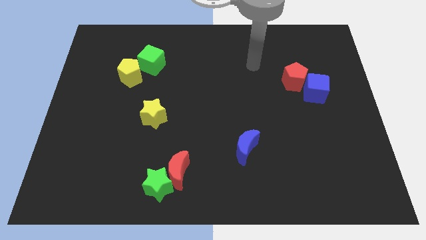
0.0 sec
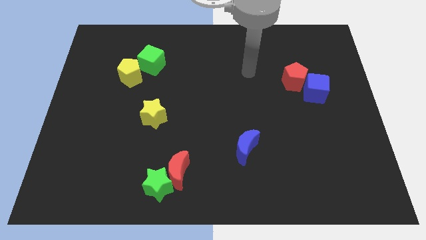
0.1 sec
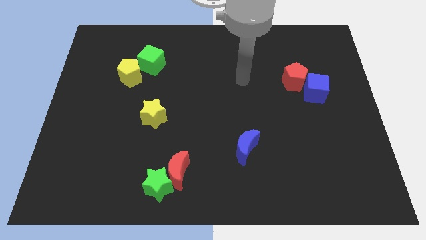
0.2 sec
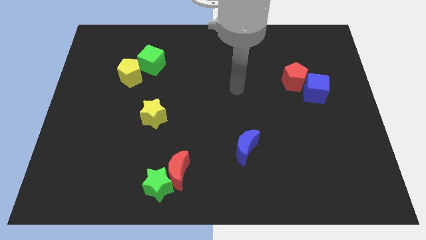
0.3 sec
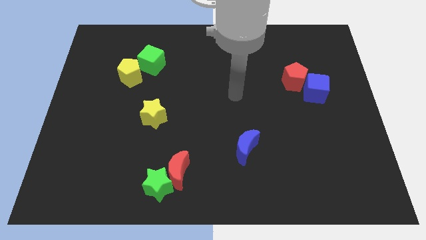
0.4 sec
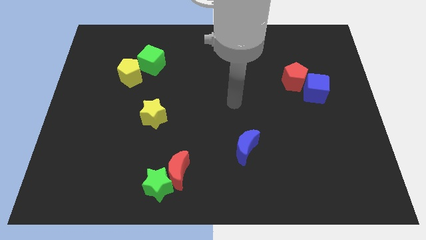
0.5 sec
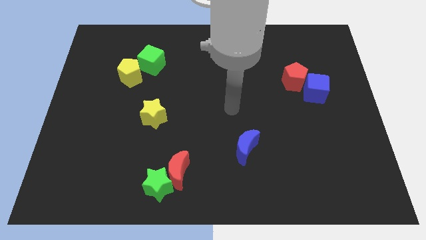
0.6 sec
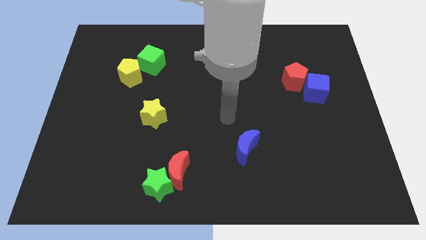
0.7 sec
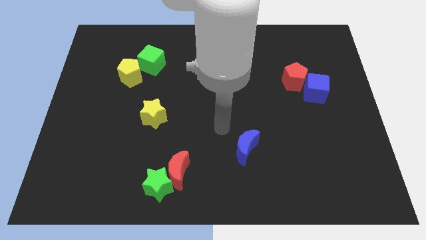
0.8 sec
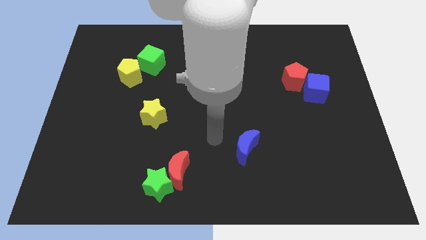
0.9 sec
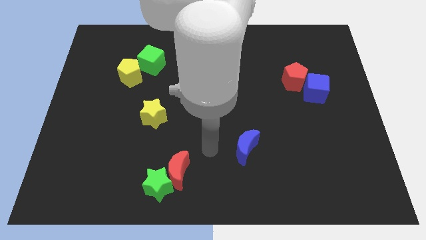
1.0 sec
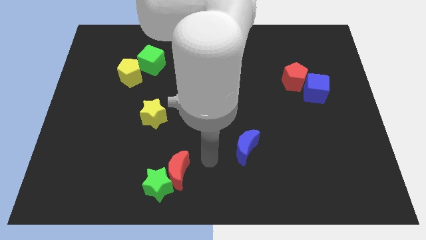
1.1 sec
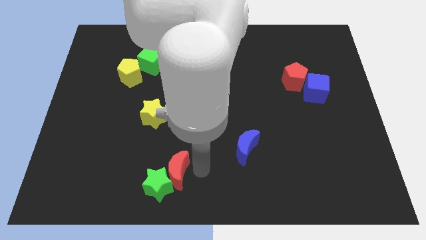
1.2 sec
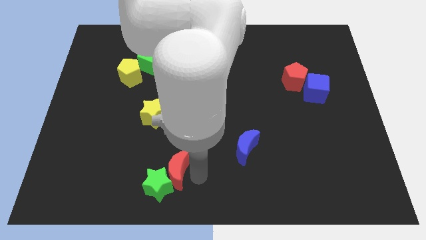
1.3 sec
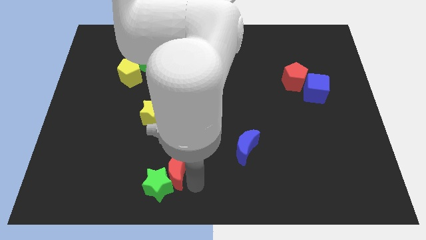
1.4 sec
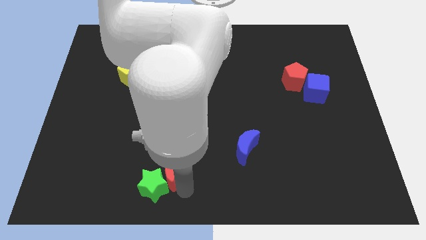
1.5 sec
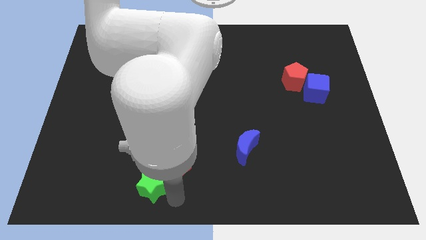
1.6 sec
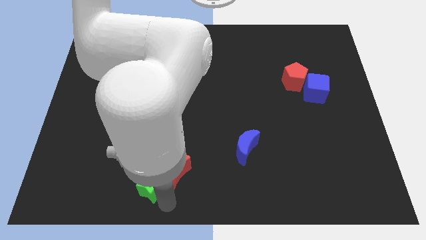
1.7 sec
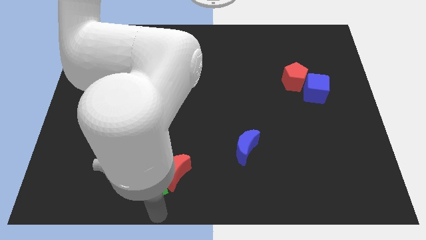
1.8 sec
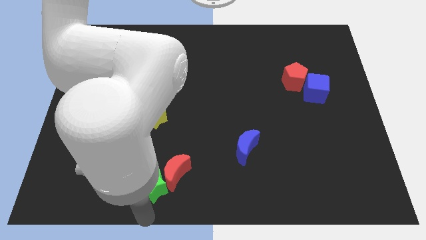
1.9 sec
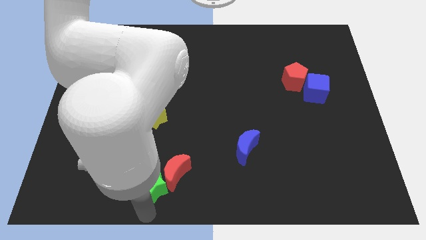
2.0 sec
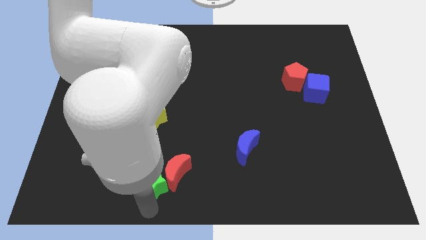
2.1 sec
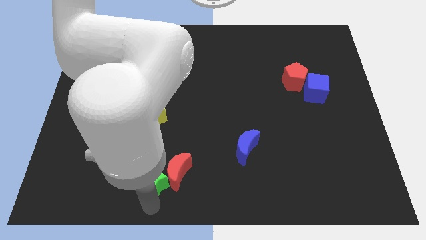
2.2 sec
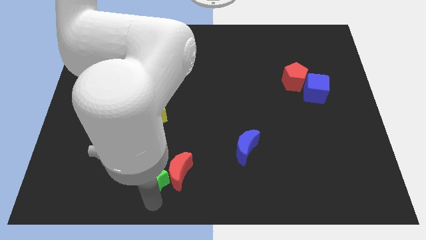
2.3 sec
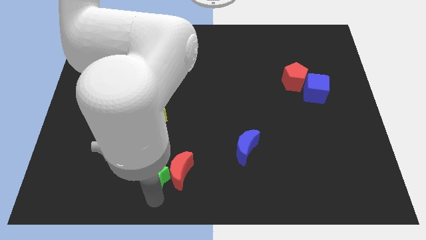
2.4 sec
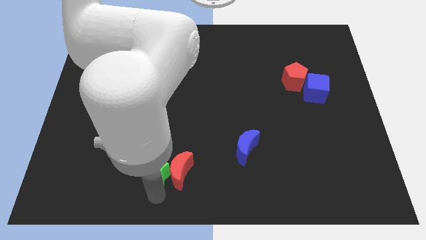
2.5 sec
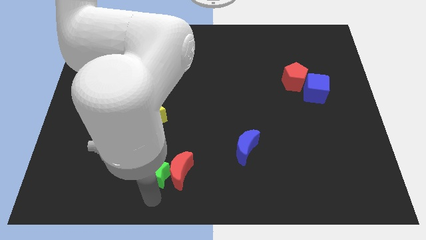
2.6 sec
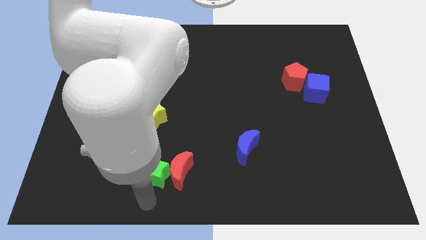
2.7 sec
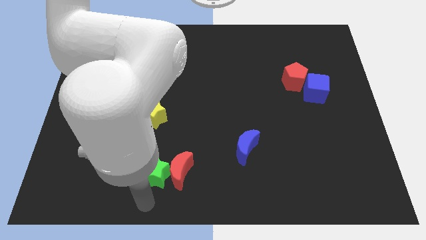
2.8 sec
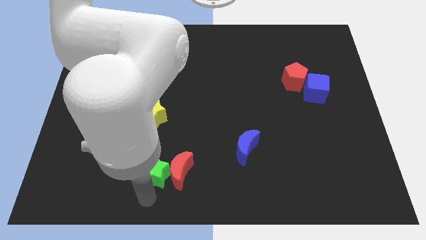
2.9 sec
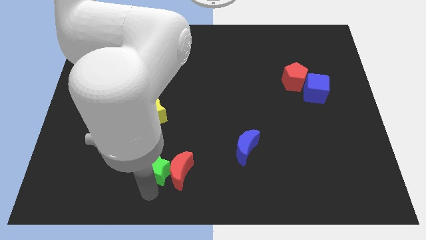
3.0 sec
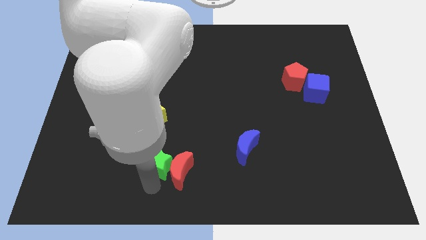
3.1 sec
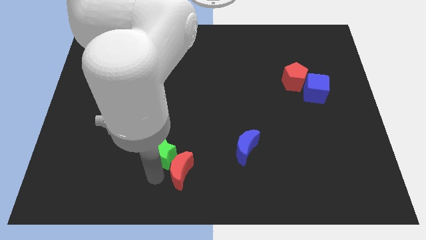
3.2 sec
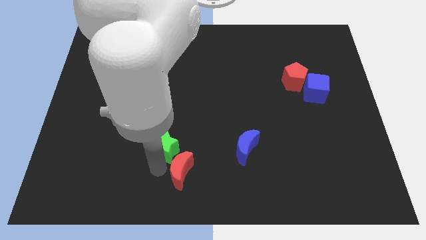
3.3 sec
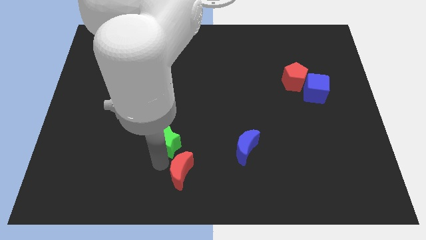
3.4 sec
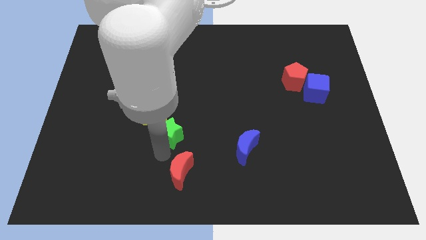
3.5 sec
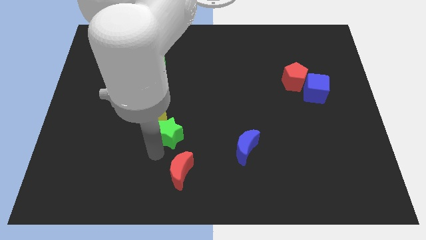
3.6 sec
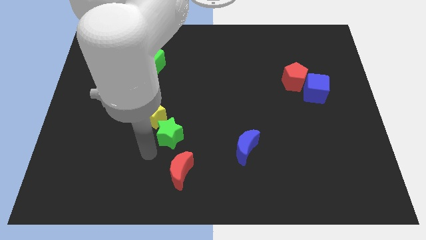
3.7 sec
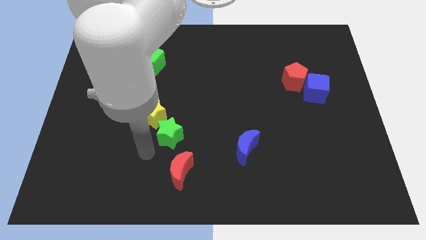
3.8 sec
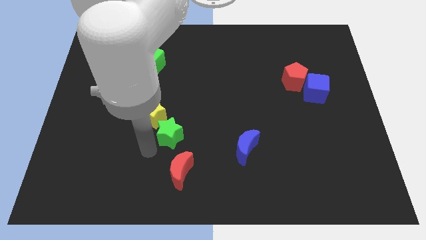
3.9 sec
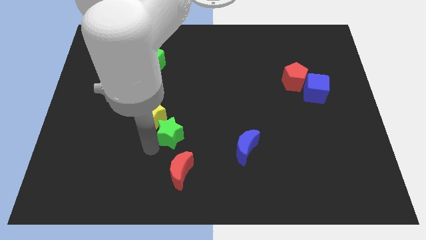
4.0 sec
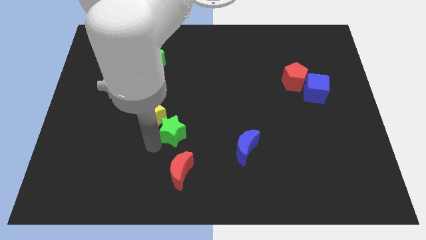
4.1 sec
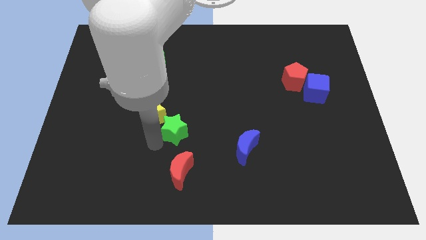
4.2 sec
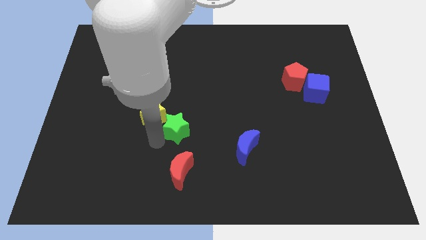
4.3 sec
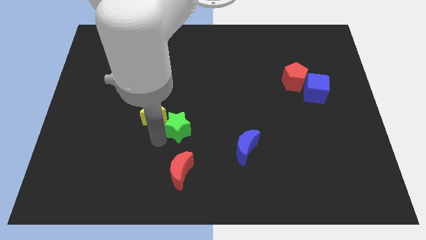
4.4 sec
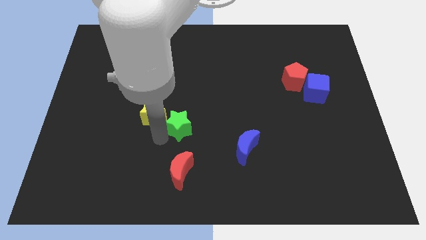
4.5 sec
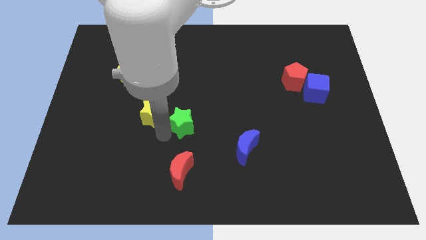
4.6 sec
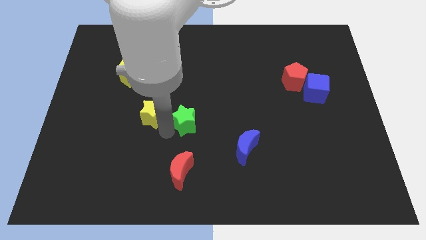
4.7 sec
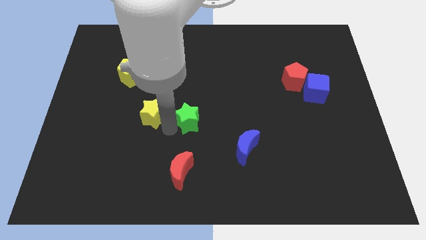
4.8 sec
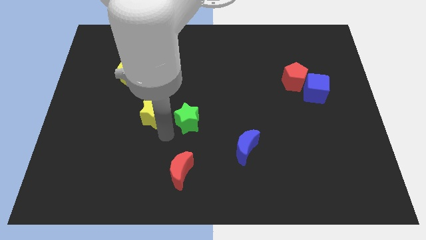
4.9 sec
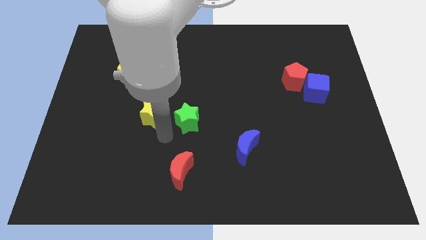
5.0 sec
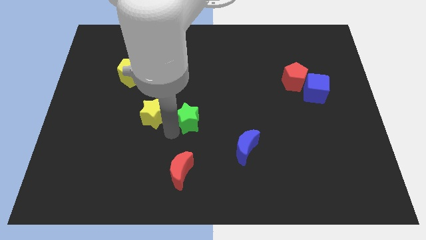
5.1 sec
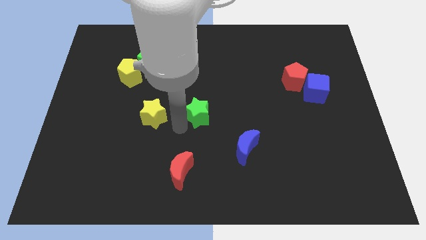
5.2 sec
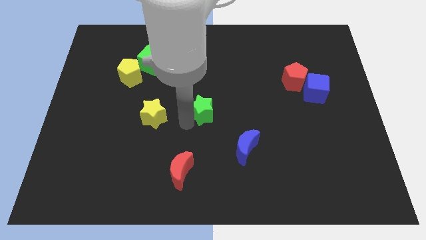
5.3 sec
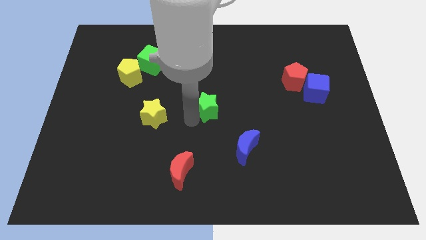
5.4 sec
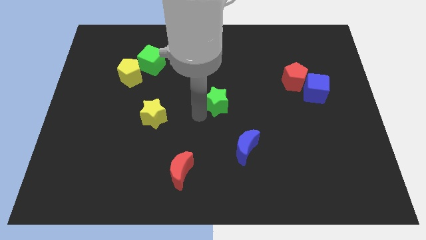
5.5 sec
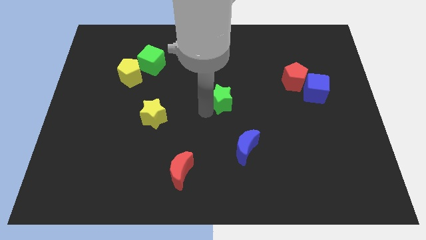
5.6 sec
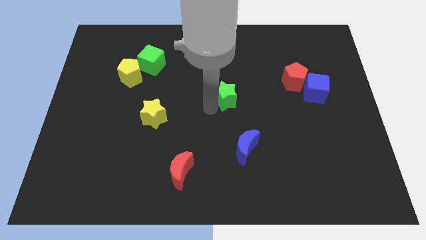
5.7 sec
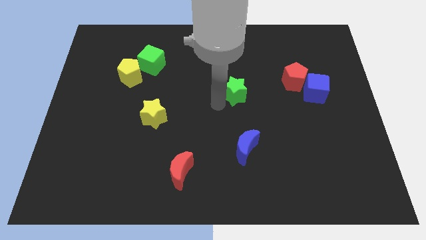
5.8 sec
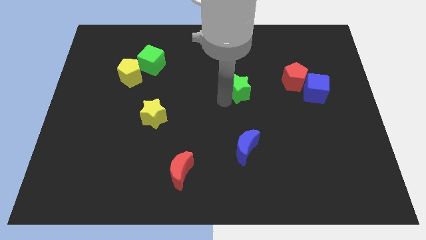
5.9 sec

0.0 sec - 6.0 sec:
push the green star to the left of the red pentagon

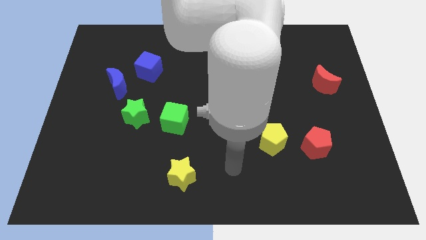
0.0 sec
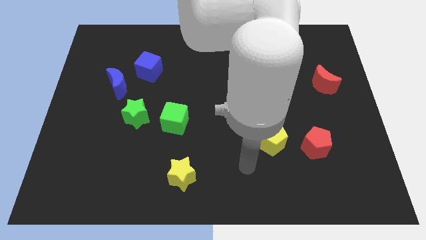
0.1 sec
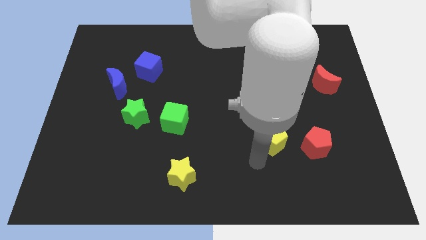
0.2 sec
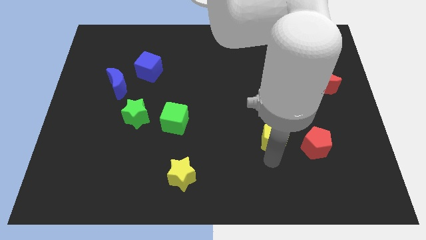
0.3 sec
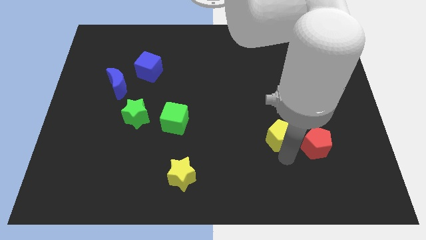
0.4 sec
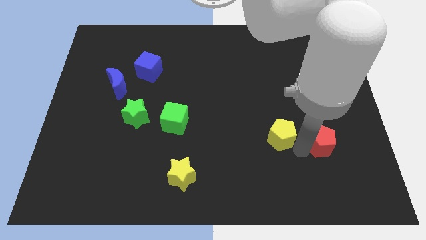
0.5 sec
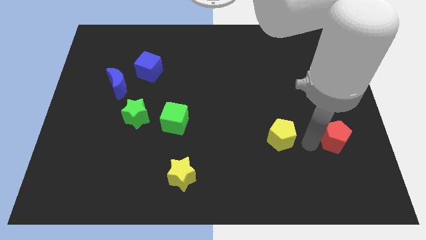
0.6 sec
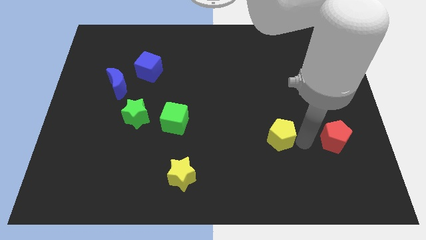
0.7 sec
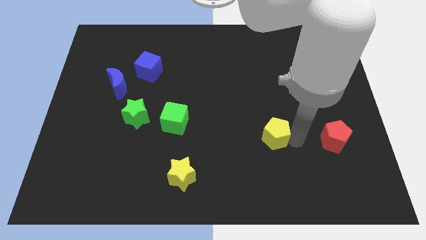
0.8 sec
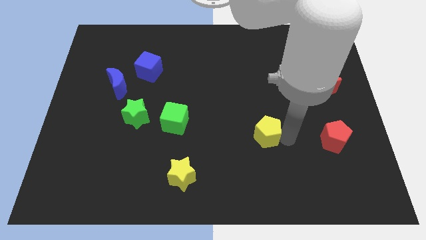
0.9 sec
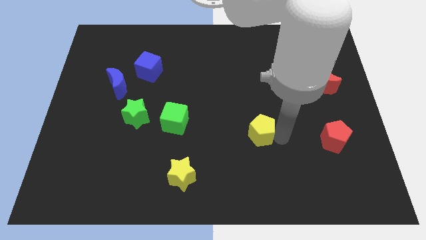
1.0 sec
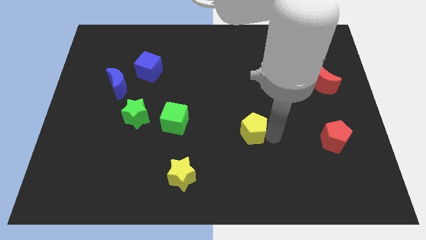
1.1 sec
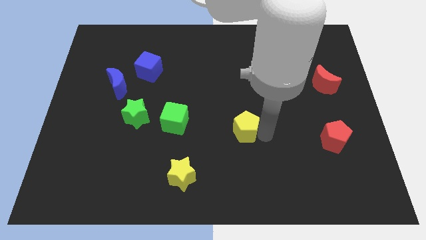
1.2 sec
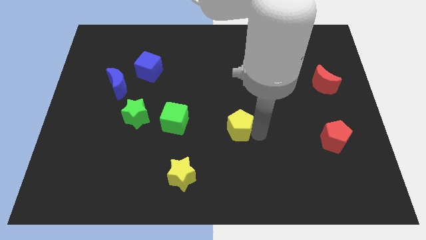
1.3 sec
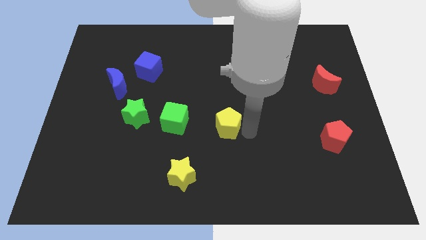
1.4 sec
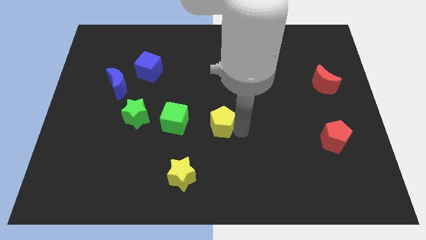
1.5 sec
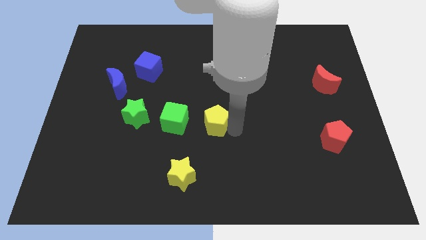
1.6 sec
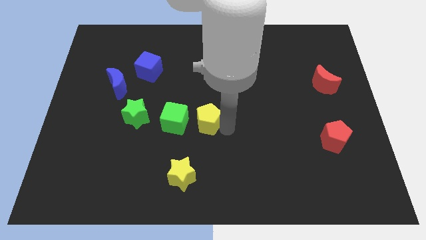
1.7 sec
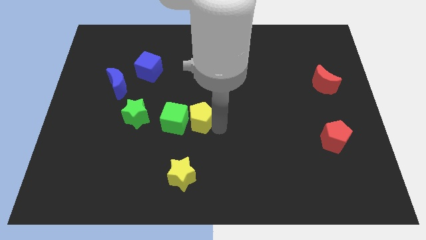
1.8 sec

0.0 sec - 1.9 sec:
slide the yellow pentagon to the top right of the green cube
